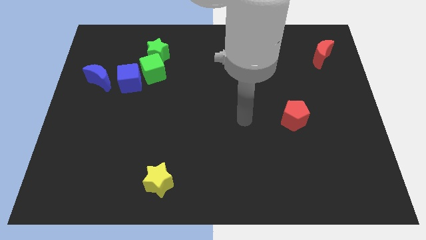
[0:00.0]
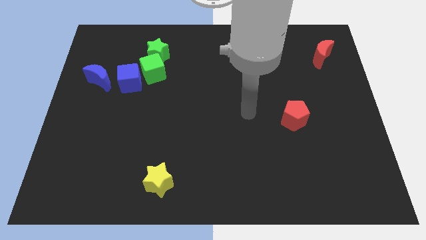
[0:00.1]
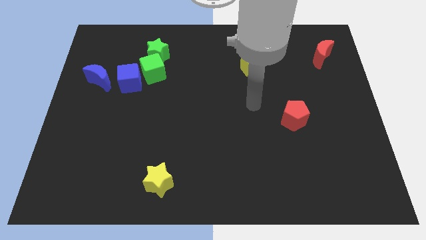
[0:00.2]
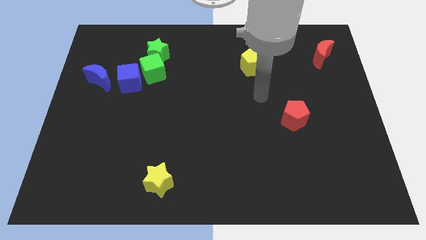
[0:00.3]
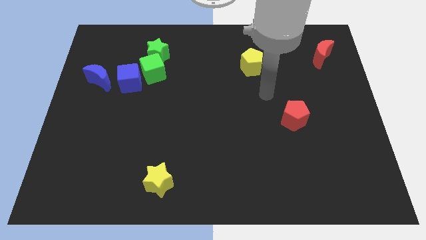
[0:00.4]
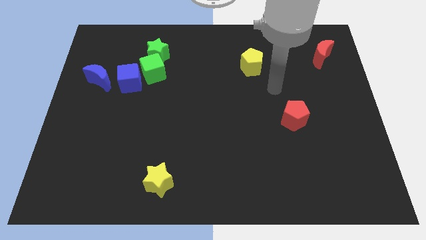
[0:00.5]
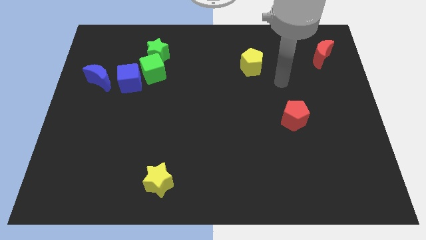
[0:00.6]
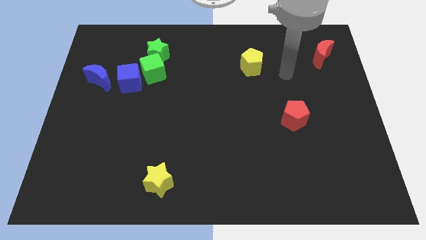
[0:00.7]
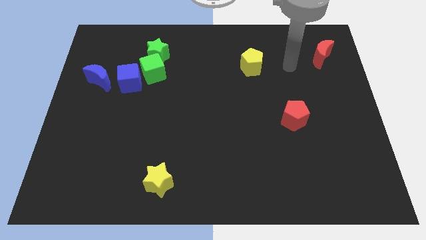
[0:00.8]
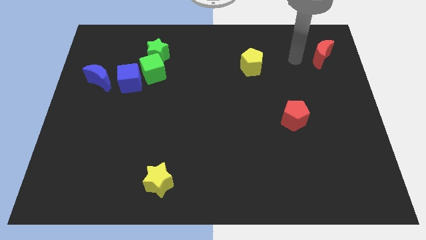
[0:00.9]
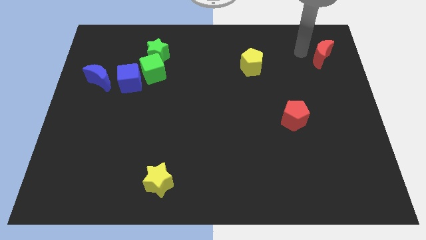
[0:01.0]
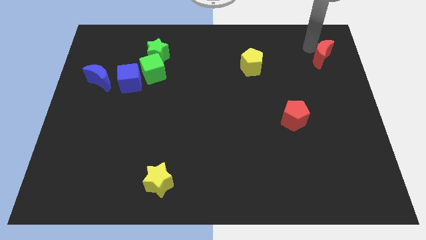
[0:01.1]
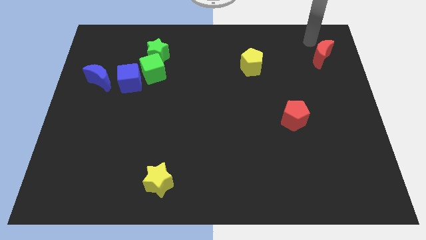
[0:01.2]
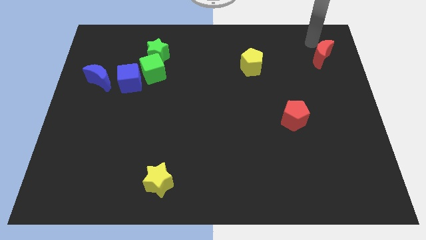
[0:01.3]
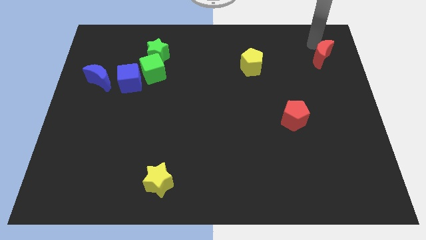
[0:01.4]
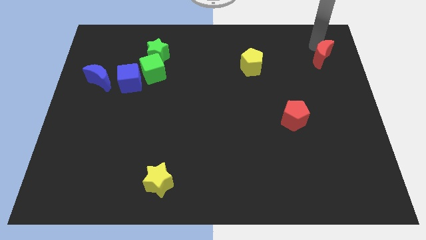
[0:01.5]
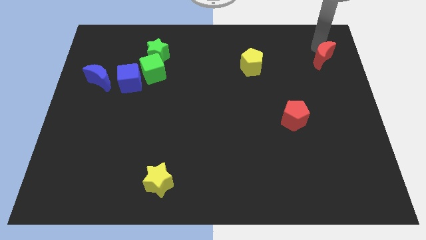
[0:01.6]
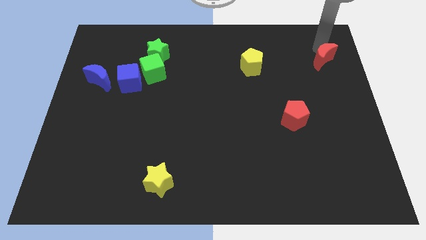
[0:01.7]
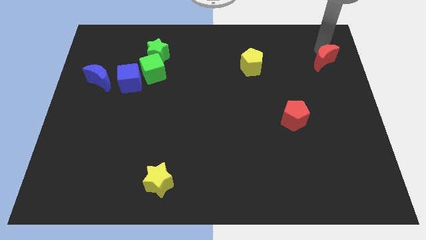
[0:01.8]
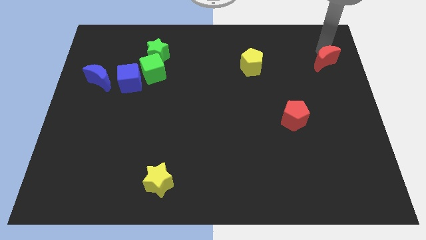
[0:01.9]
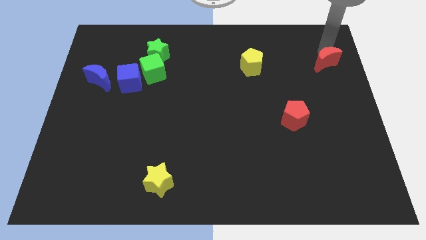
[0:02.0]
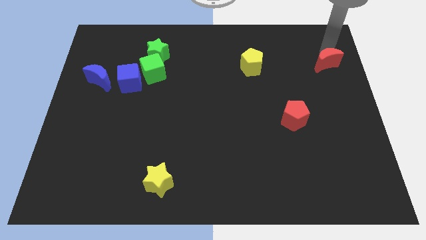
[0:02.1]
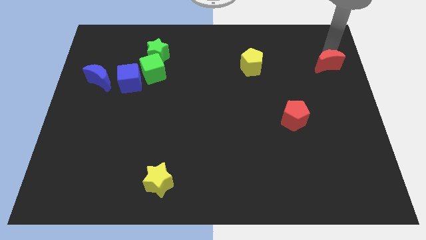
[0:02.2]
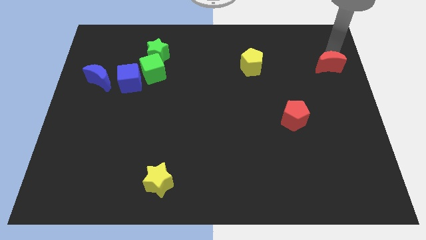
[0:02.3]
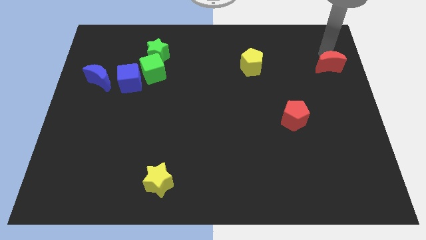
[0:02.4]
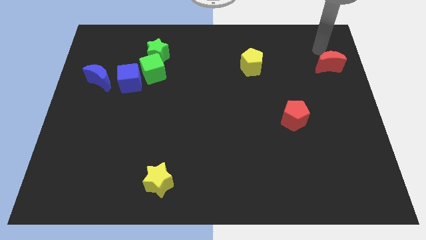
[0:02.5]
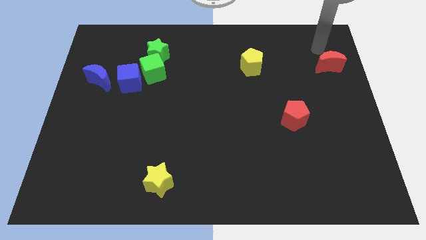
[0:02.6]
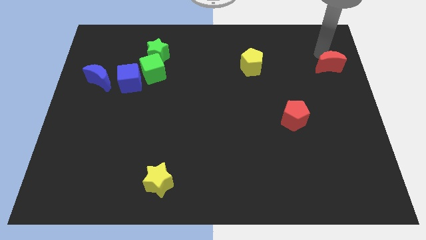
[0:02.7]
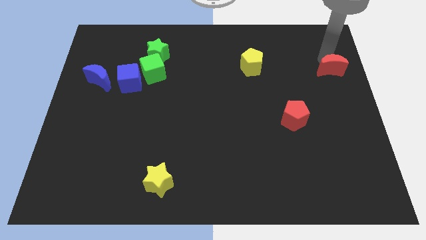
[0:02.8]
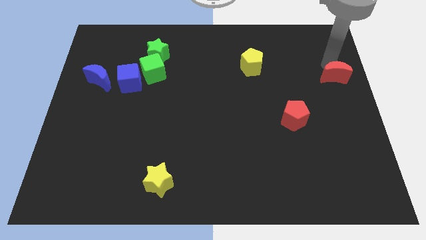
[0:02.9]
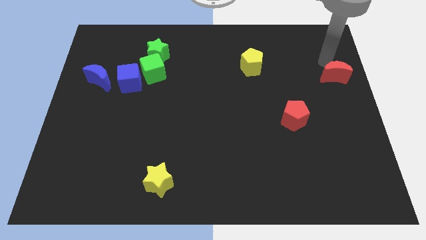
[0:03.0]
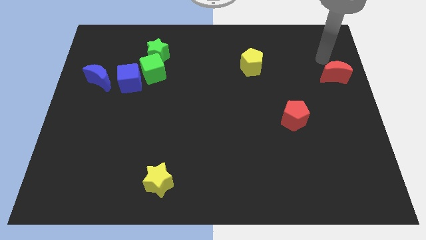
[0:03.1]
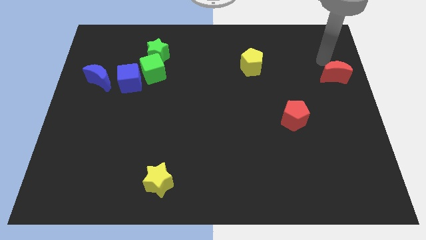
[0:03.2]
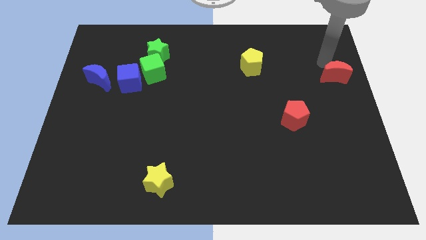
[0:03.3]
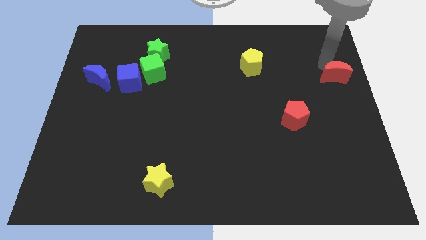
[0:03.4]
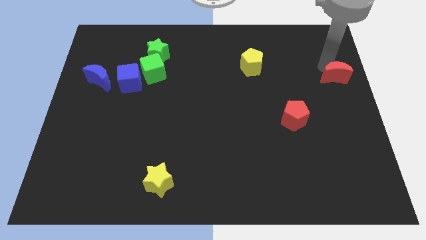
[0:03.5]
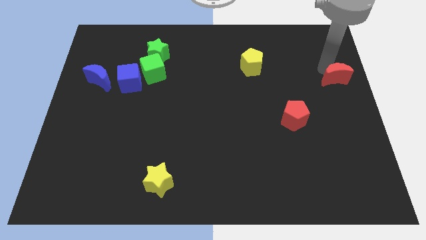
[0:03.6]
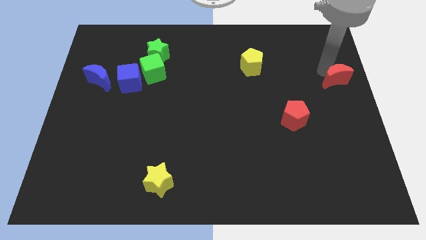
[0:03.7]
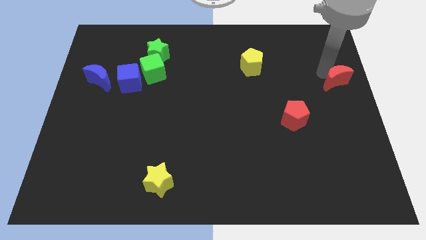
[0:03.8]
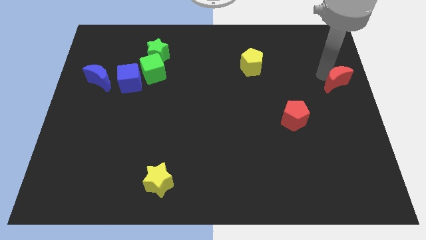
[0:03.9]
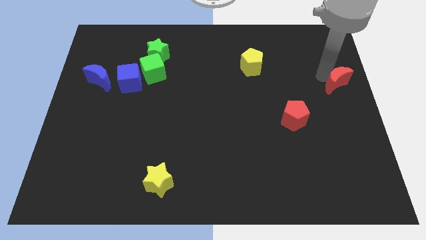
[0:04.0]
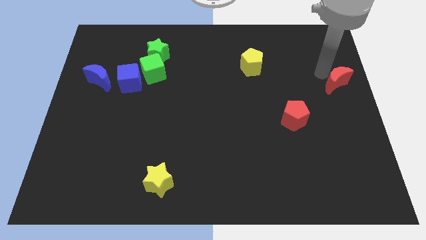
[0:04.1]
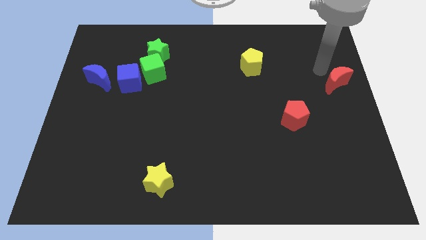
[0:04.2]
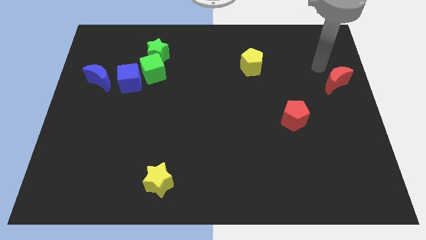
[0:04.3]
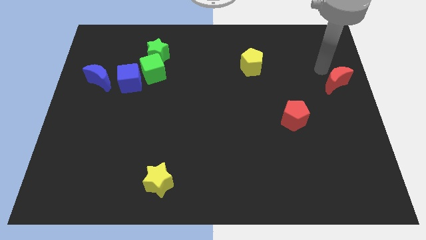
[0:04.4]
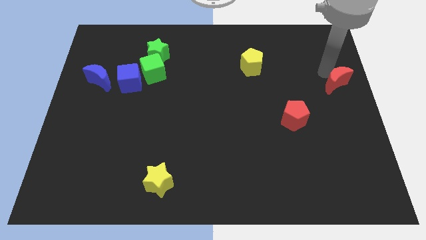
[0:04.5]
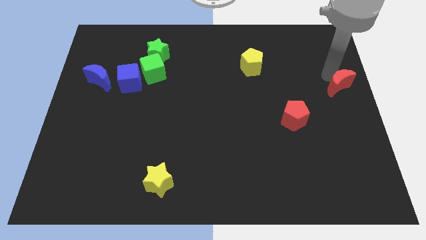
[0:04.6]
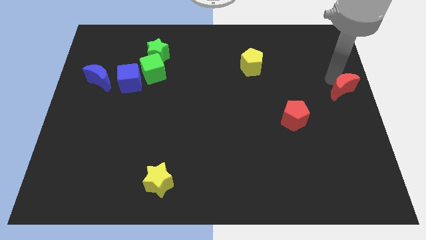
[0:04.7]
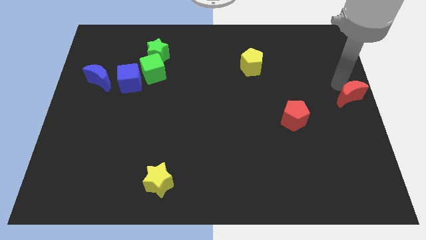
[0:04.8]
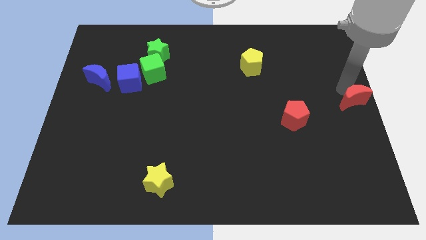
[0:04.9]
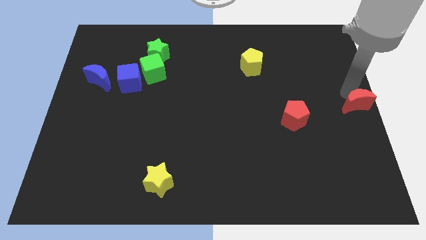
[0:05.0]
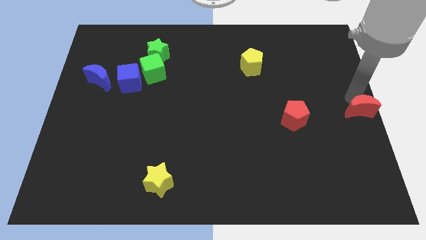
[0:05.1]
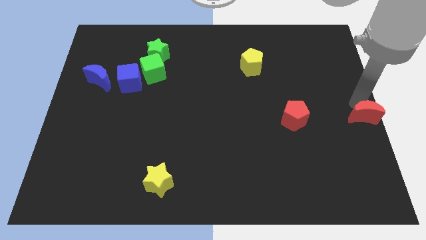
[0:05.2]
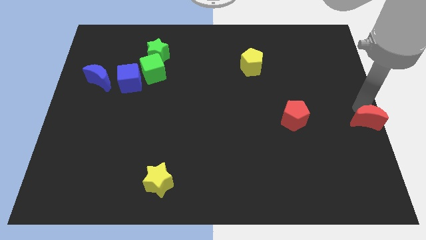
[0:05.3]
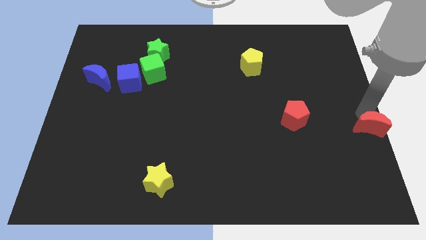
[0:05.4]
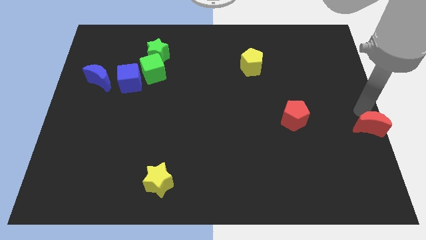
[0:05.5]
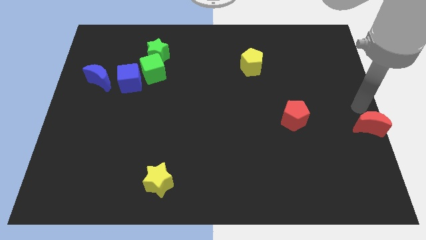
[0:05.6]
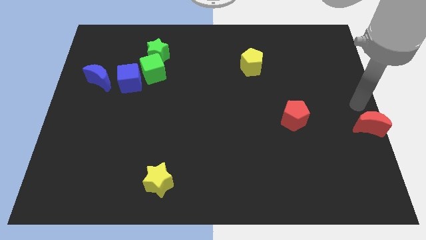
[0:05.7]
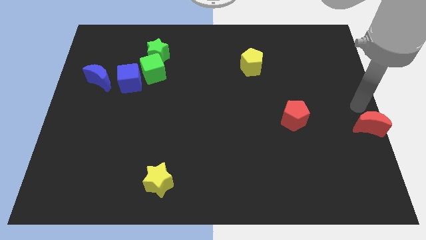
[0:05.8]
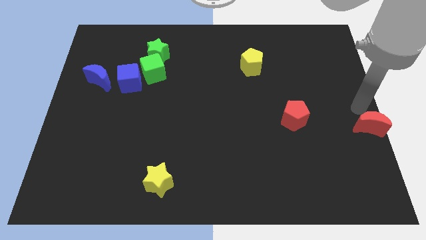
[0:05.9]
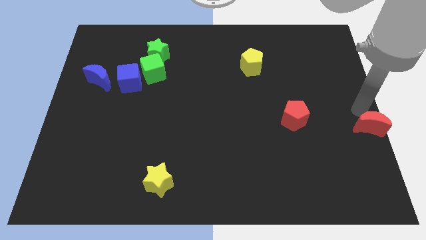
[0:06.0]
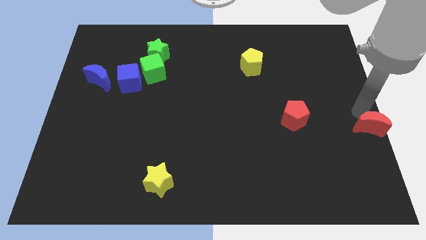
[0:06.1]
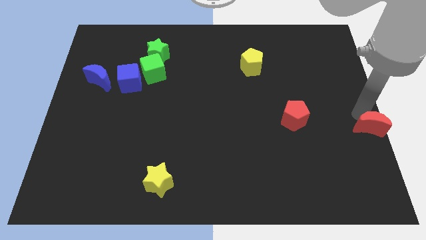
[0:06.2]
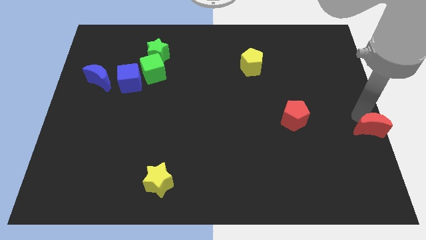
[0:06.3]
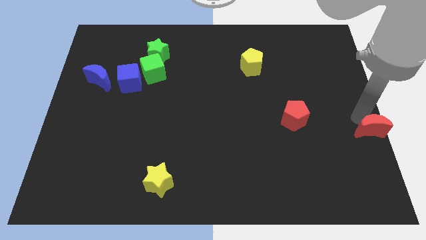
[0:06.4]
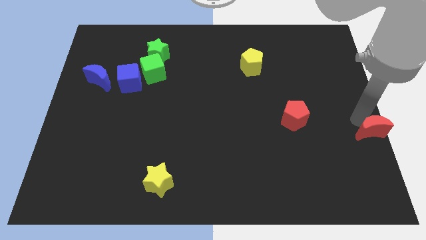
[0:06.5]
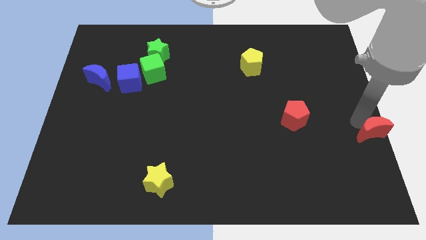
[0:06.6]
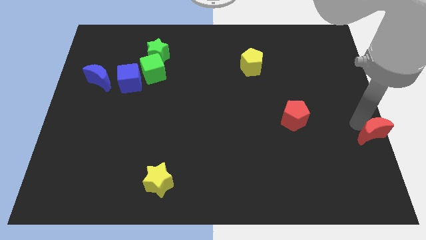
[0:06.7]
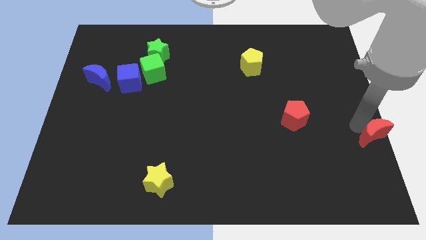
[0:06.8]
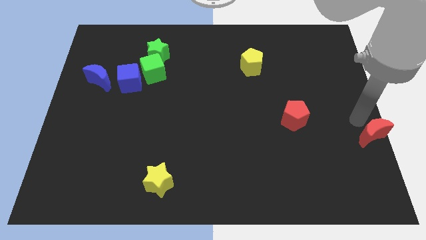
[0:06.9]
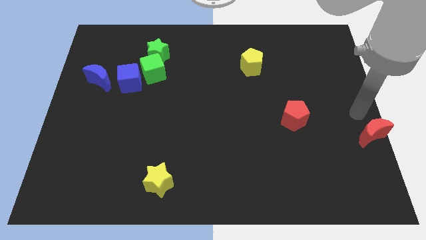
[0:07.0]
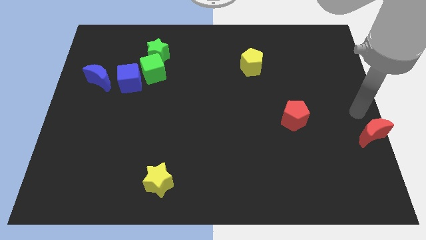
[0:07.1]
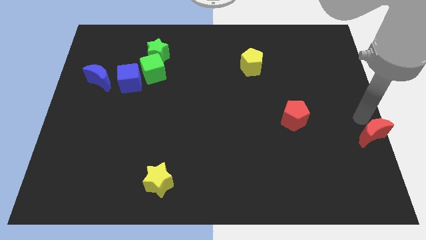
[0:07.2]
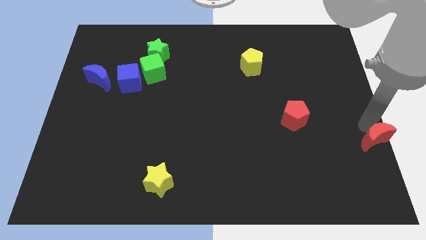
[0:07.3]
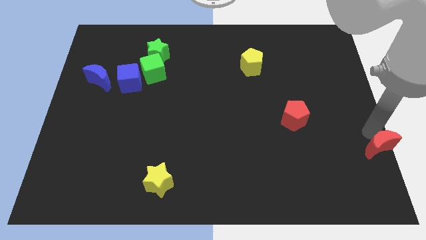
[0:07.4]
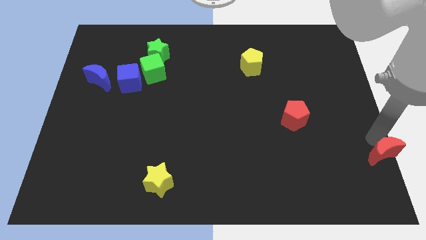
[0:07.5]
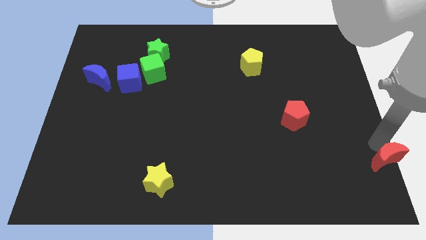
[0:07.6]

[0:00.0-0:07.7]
push the red moon to the bottom right
